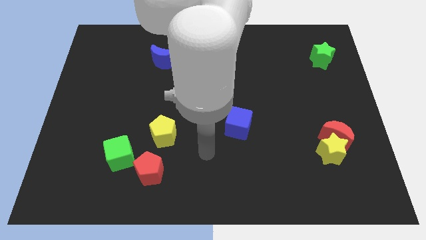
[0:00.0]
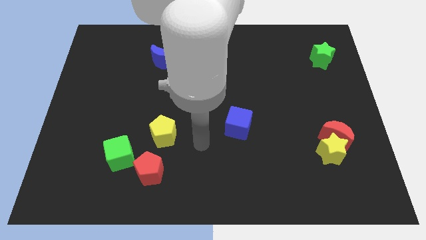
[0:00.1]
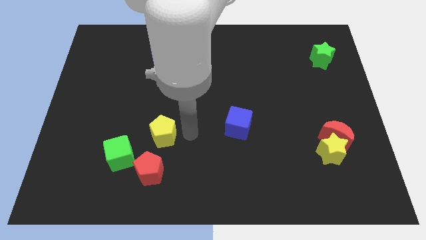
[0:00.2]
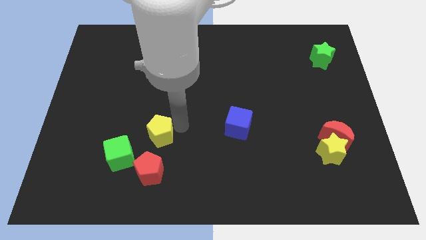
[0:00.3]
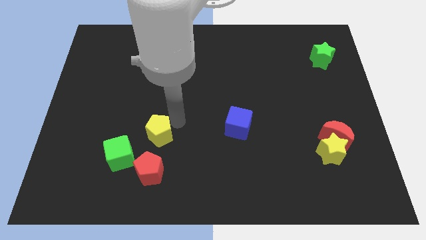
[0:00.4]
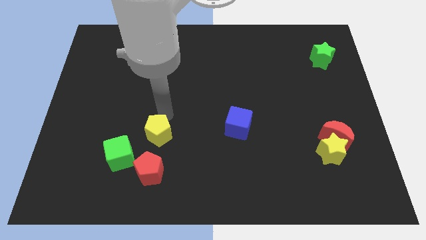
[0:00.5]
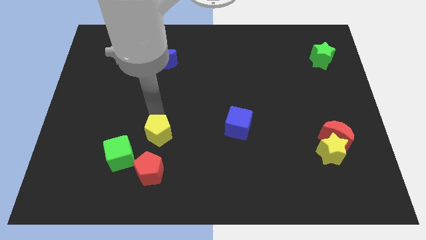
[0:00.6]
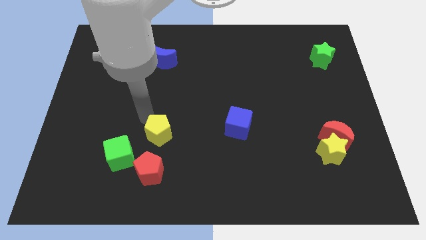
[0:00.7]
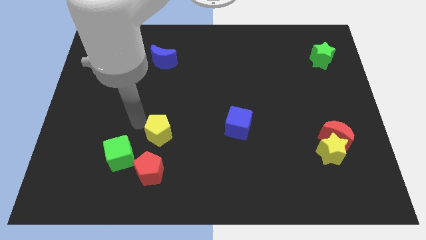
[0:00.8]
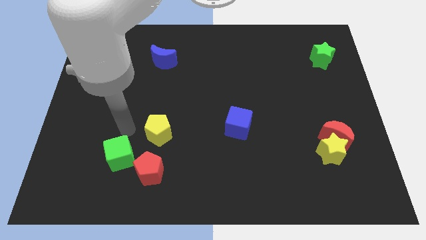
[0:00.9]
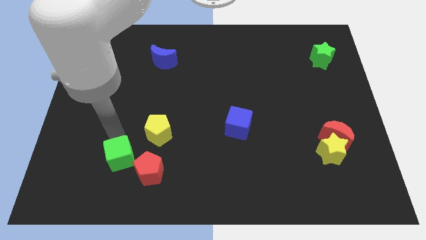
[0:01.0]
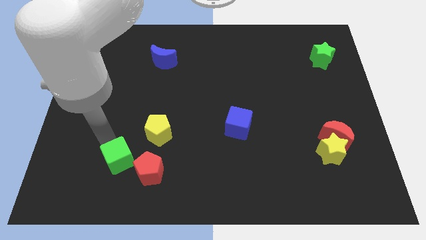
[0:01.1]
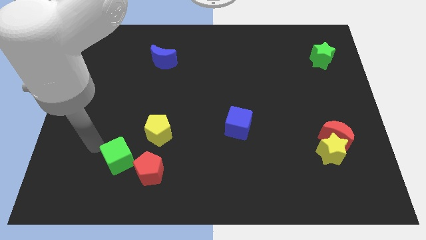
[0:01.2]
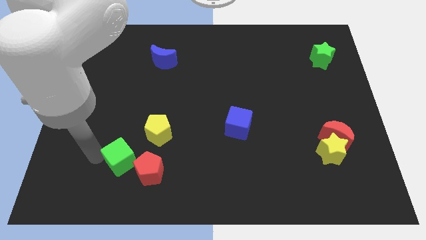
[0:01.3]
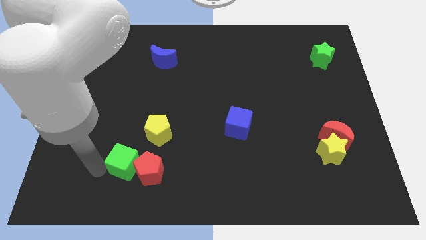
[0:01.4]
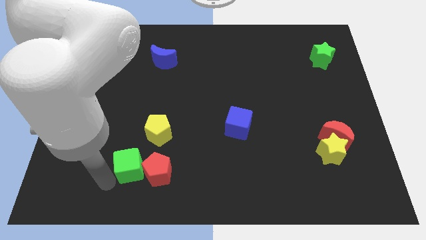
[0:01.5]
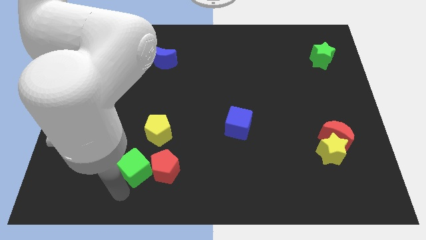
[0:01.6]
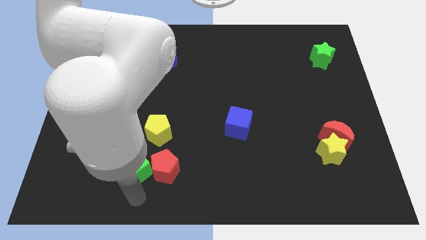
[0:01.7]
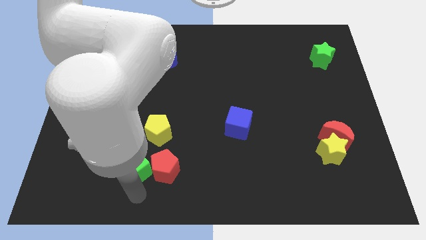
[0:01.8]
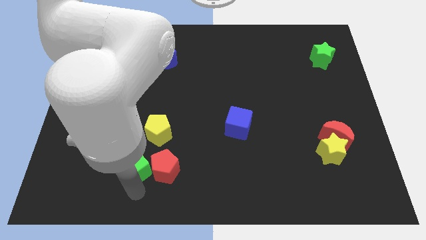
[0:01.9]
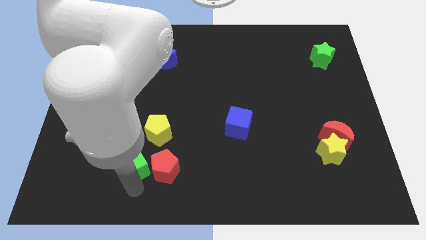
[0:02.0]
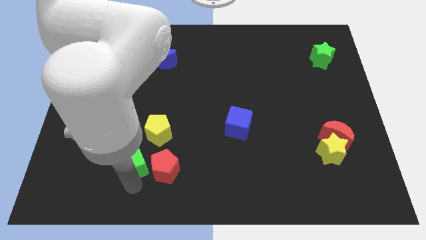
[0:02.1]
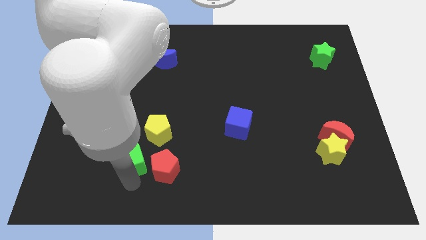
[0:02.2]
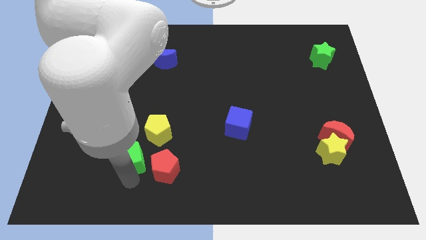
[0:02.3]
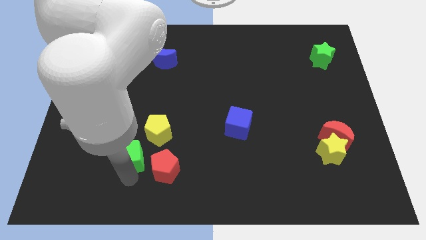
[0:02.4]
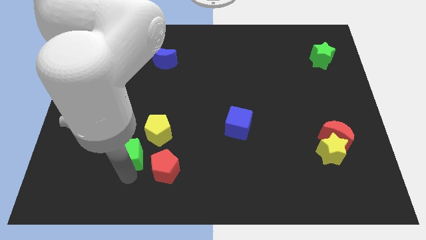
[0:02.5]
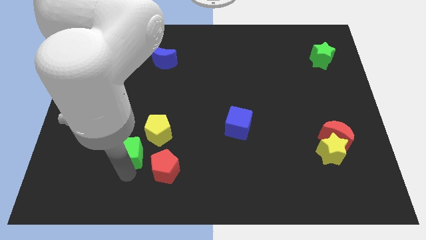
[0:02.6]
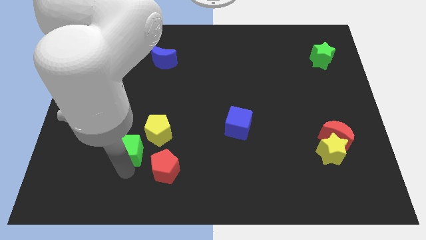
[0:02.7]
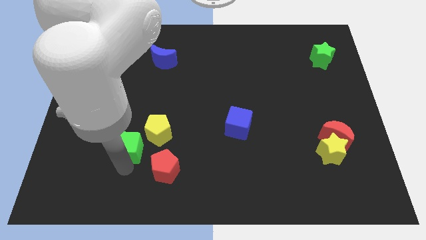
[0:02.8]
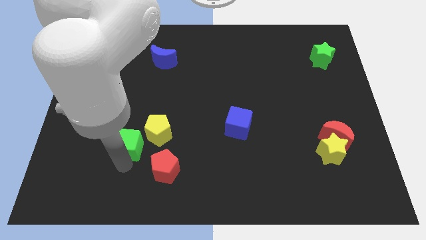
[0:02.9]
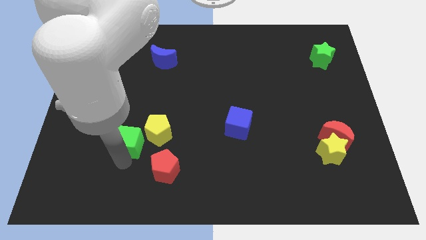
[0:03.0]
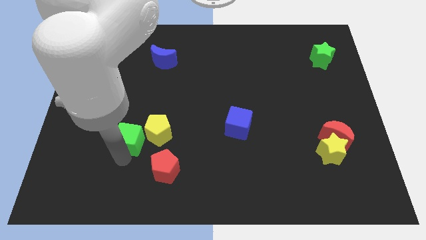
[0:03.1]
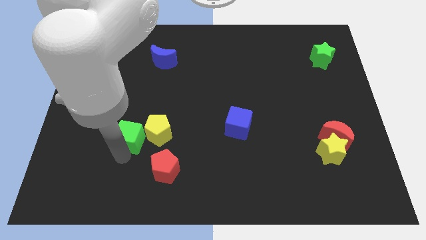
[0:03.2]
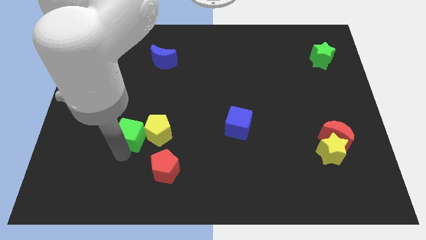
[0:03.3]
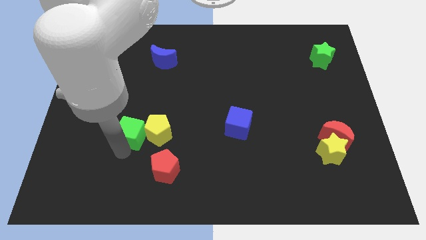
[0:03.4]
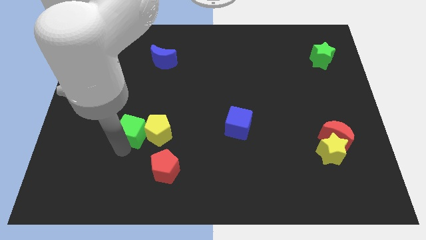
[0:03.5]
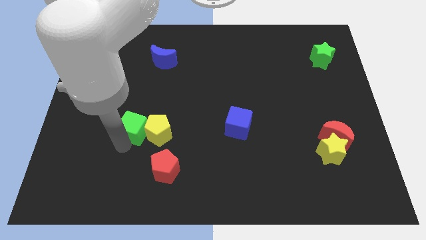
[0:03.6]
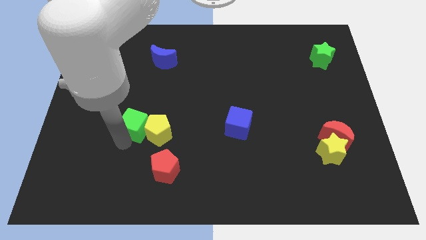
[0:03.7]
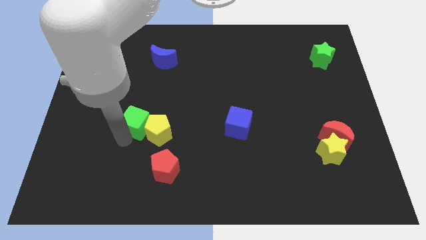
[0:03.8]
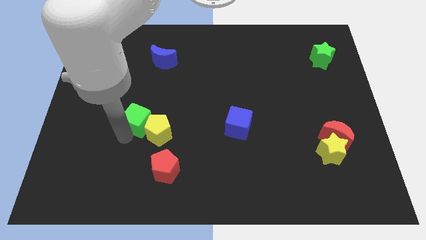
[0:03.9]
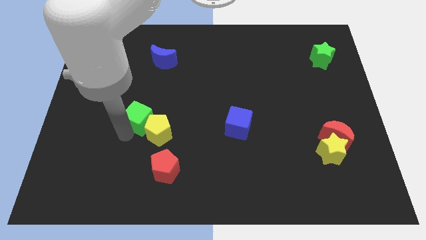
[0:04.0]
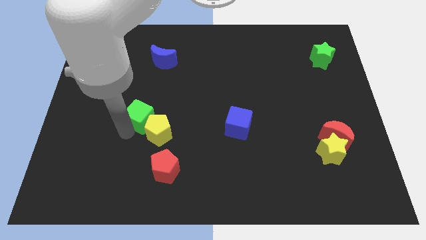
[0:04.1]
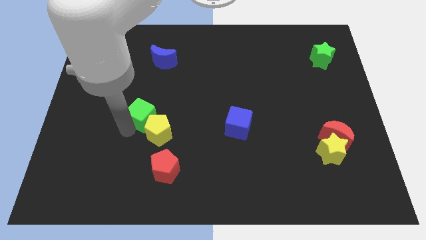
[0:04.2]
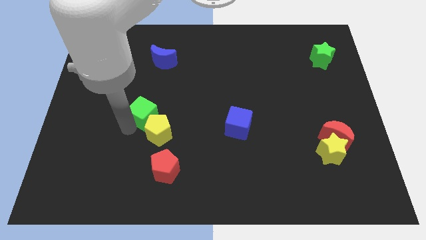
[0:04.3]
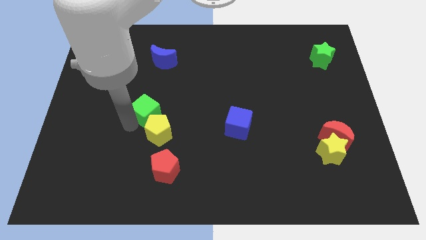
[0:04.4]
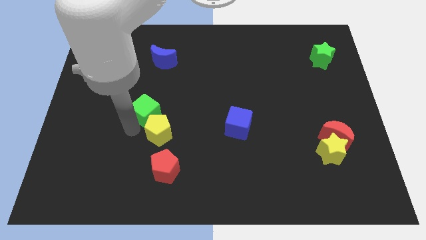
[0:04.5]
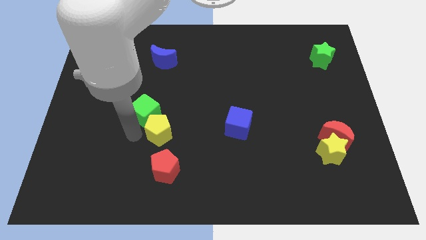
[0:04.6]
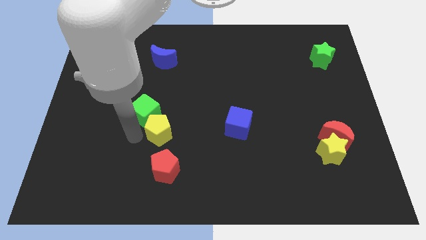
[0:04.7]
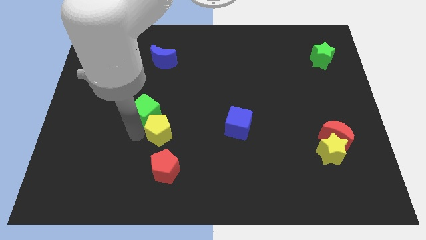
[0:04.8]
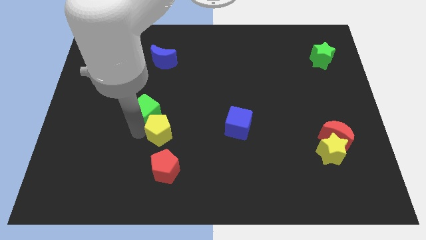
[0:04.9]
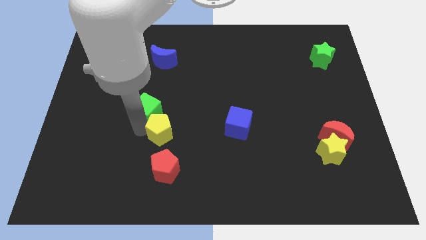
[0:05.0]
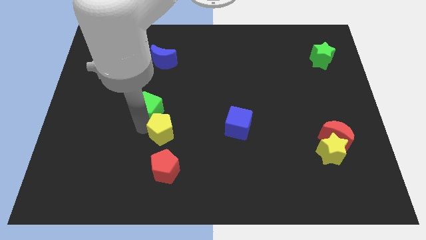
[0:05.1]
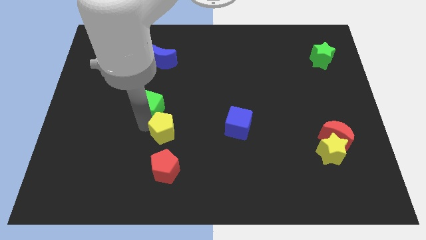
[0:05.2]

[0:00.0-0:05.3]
put the green cube to the bottom of the blue moon

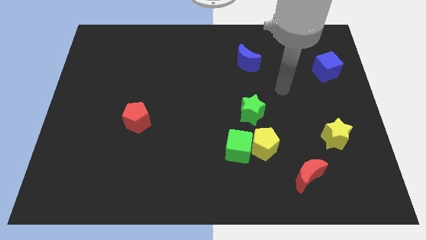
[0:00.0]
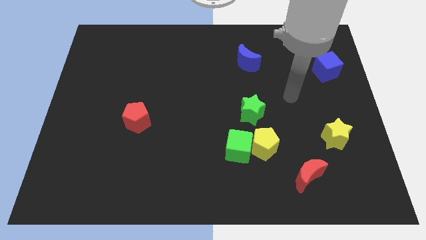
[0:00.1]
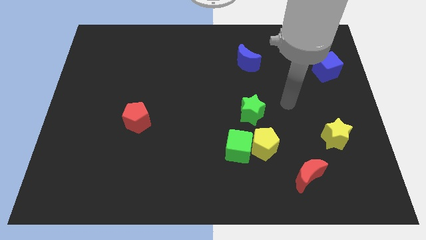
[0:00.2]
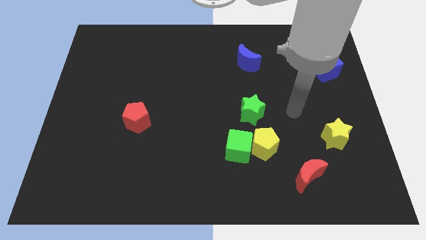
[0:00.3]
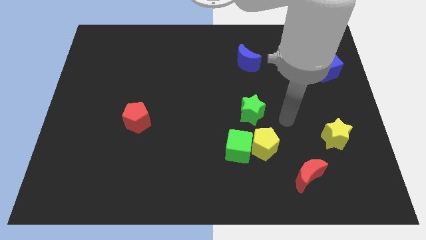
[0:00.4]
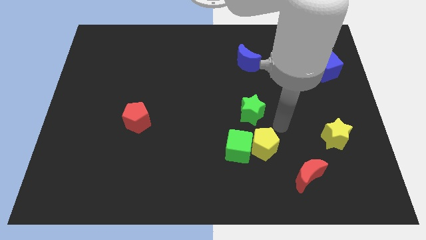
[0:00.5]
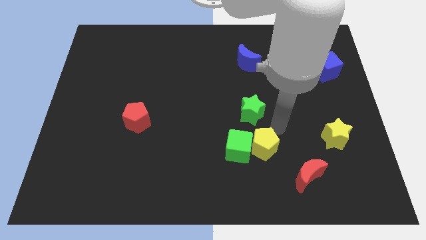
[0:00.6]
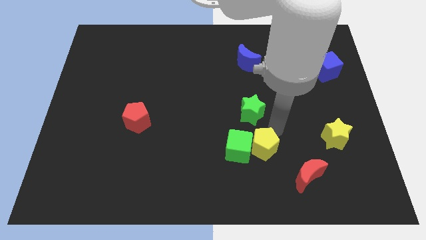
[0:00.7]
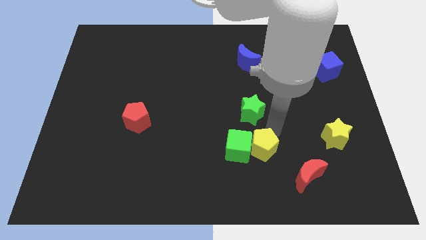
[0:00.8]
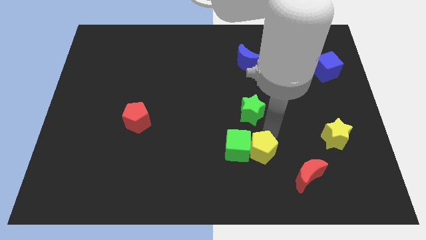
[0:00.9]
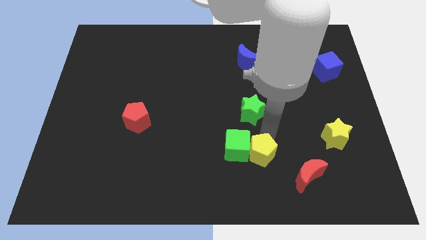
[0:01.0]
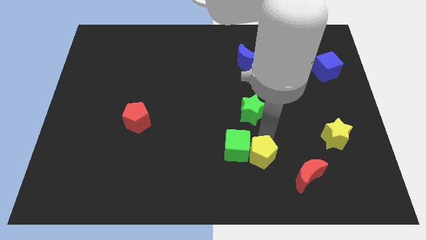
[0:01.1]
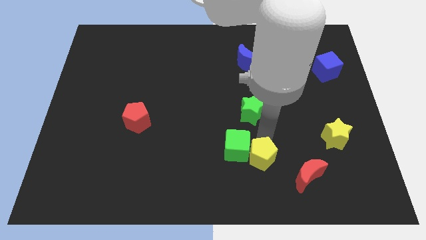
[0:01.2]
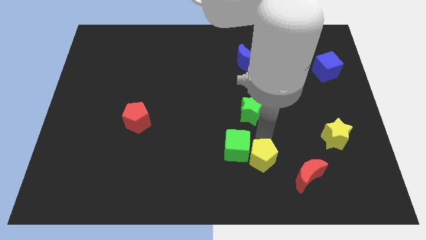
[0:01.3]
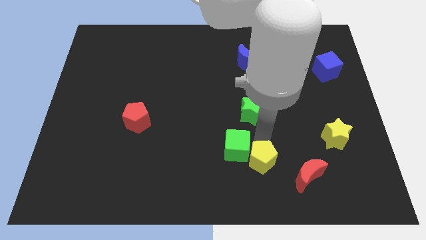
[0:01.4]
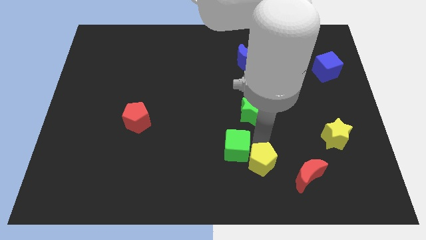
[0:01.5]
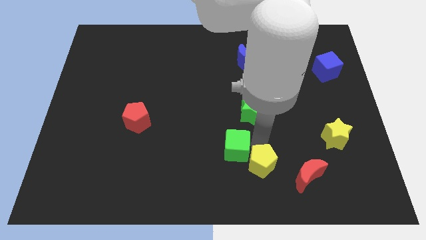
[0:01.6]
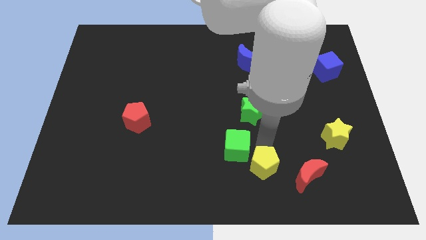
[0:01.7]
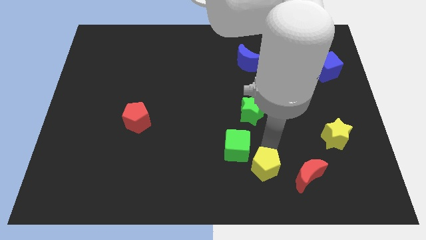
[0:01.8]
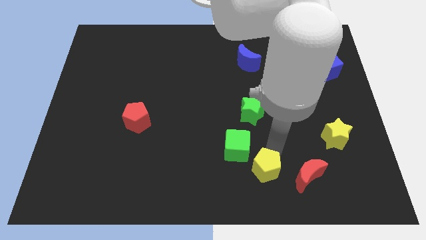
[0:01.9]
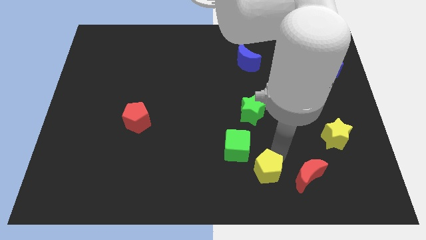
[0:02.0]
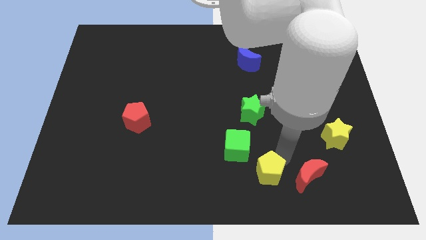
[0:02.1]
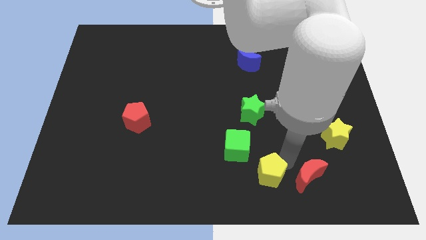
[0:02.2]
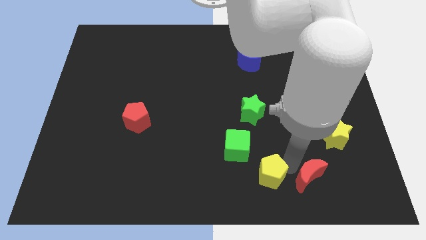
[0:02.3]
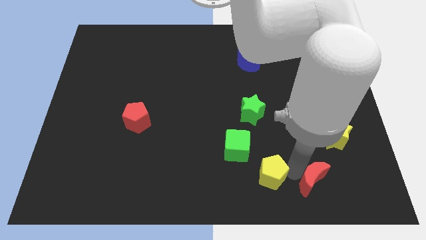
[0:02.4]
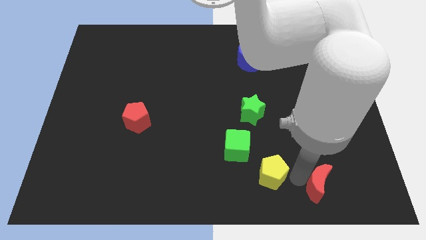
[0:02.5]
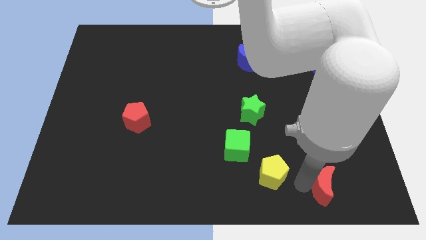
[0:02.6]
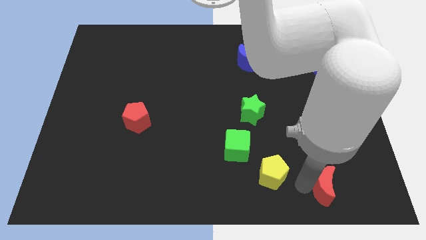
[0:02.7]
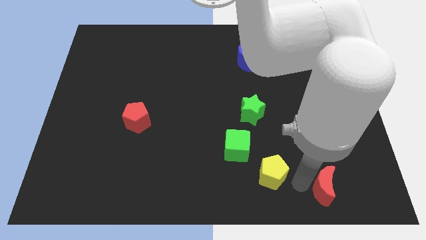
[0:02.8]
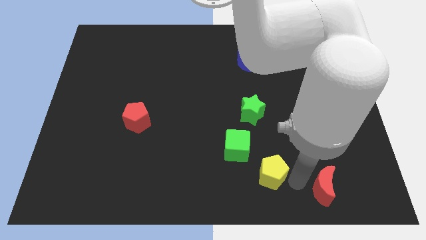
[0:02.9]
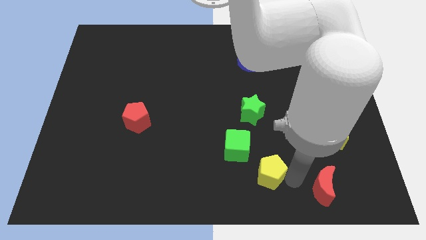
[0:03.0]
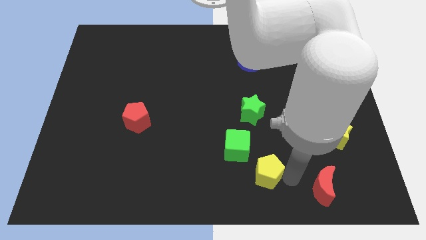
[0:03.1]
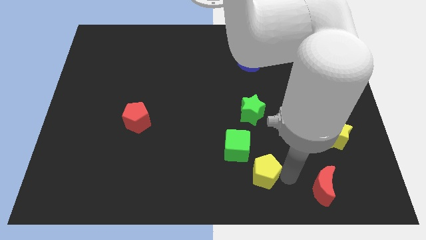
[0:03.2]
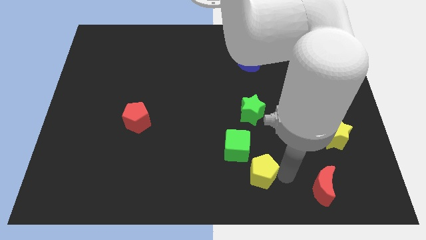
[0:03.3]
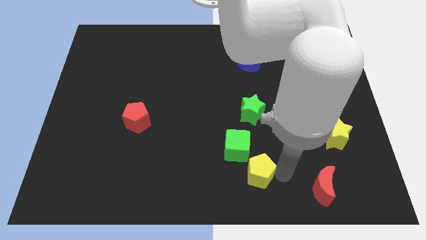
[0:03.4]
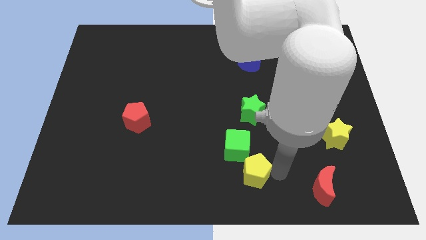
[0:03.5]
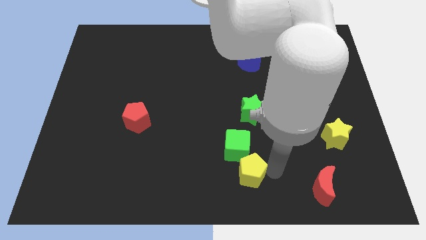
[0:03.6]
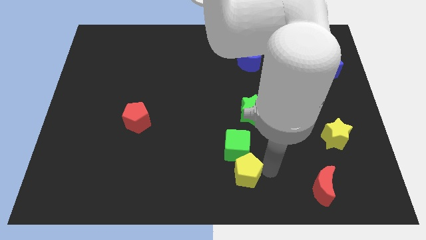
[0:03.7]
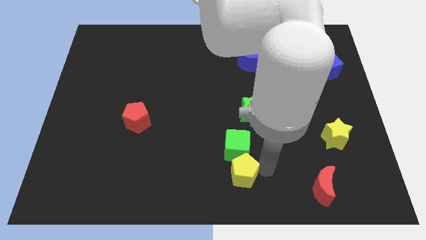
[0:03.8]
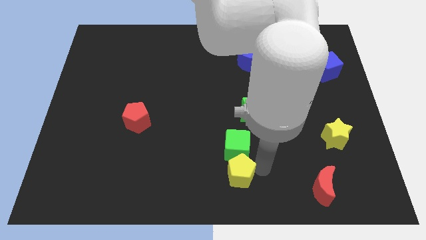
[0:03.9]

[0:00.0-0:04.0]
slide the yellow pentagon to the bottom left side of the green cube
